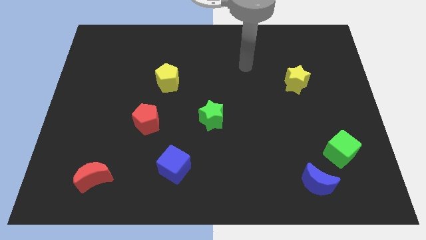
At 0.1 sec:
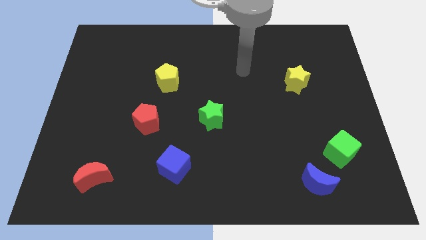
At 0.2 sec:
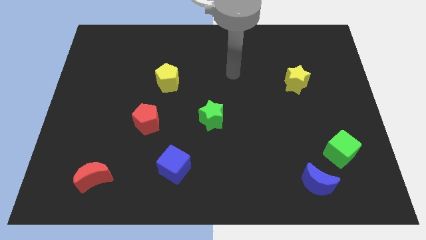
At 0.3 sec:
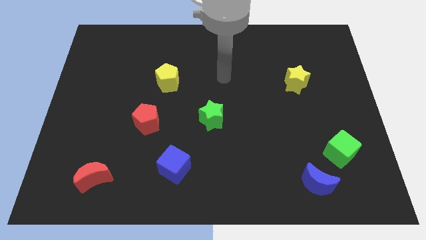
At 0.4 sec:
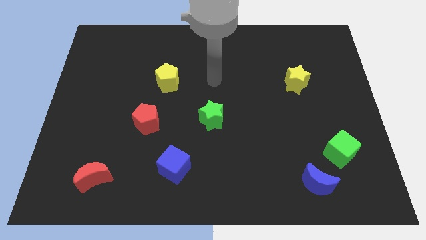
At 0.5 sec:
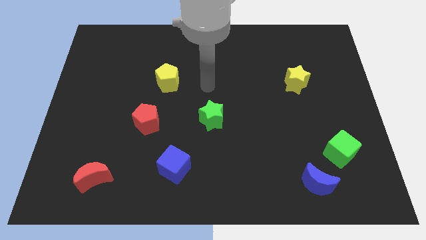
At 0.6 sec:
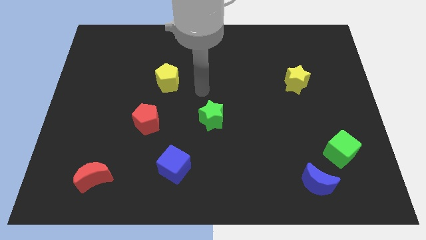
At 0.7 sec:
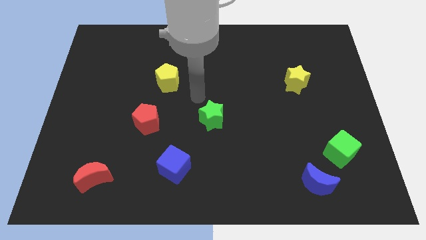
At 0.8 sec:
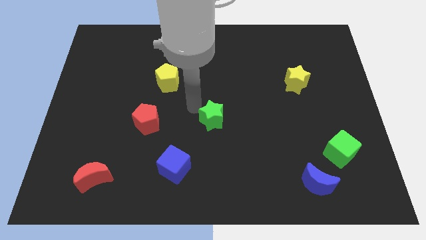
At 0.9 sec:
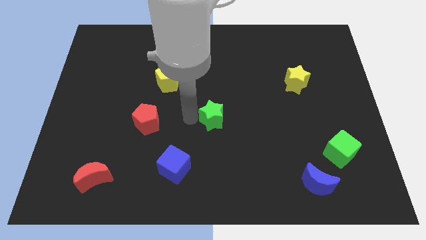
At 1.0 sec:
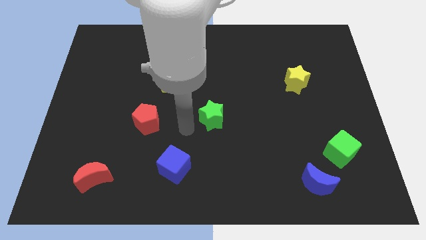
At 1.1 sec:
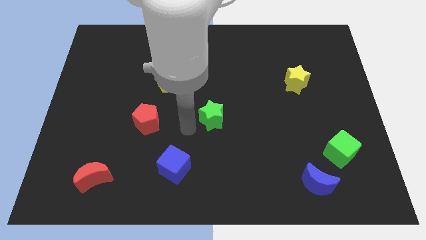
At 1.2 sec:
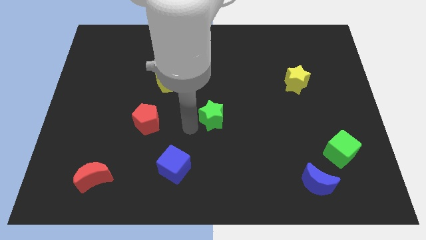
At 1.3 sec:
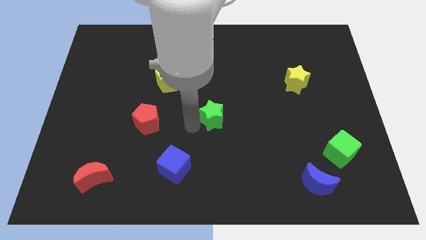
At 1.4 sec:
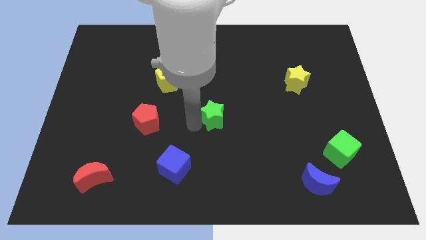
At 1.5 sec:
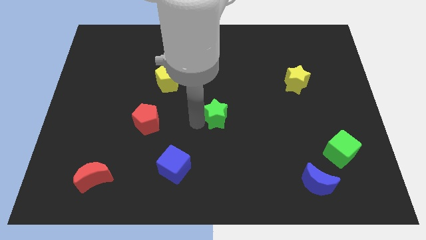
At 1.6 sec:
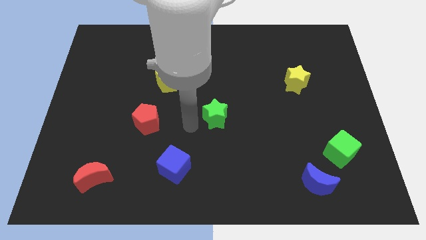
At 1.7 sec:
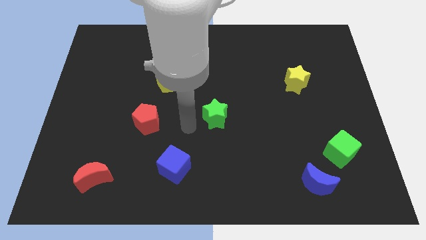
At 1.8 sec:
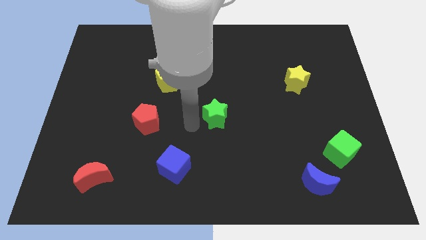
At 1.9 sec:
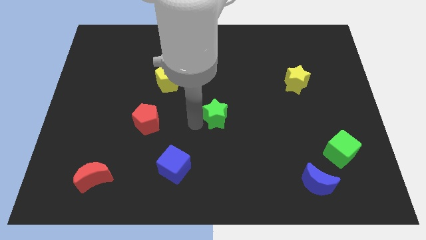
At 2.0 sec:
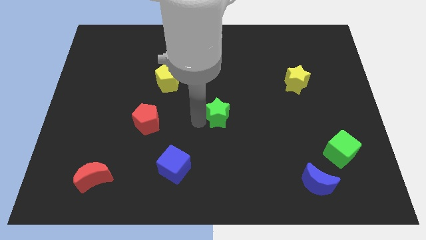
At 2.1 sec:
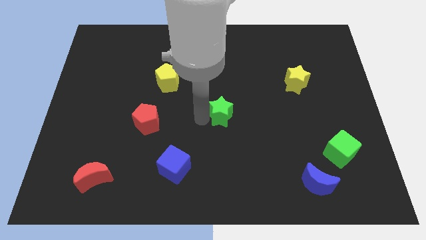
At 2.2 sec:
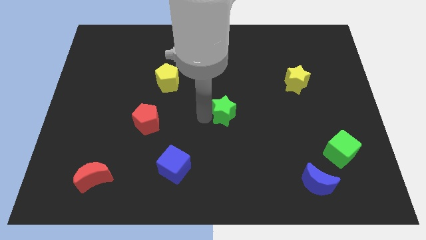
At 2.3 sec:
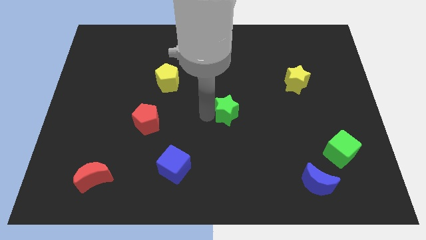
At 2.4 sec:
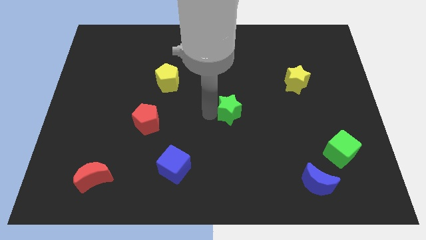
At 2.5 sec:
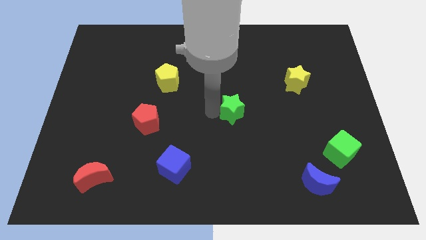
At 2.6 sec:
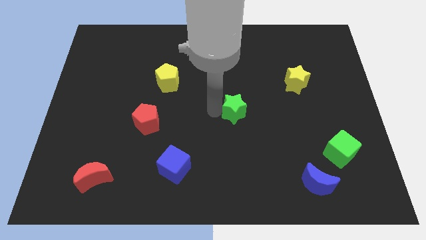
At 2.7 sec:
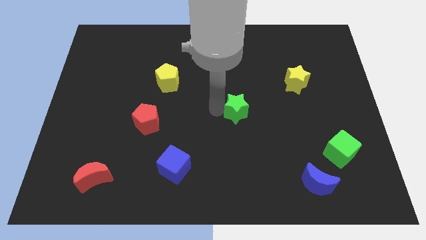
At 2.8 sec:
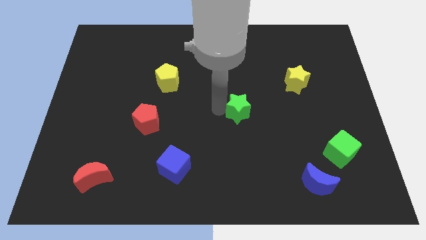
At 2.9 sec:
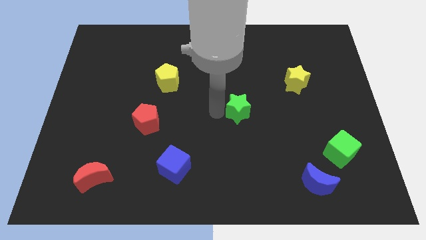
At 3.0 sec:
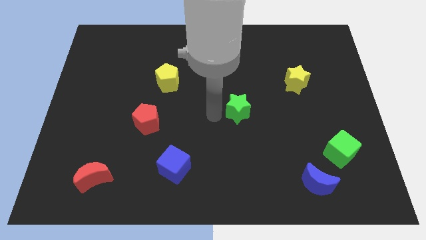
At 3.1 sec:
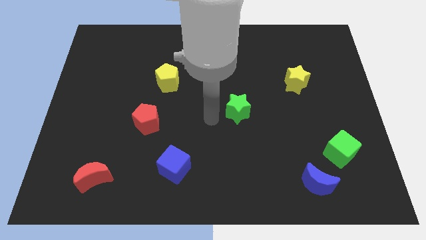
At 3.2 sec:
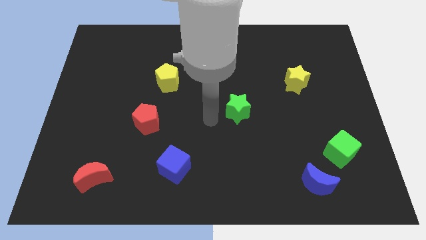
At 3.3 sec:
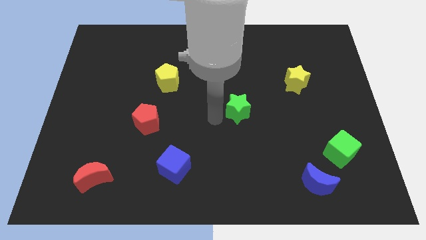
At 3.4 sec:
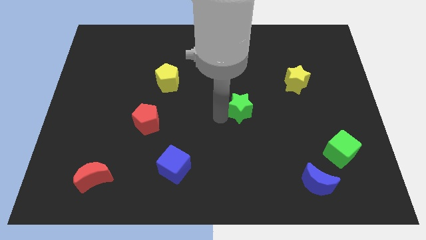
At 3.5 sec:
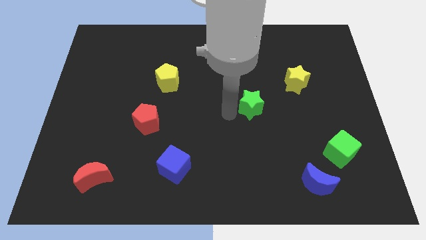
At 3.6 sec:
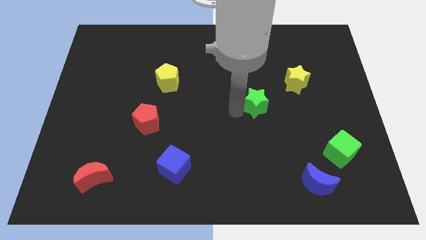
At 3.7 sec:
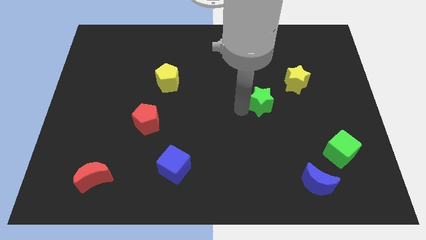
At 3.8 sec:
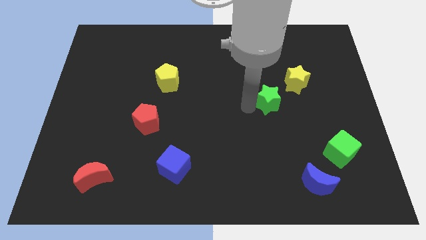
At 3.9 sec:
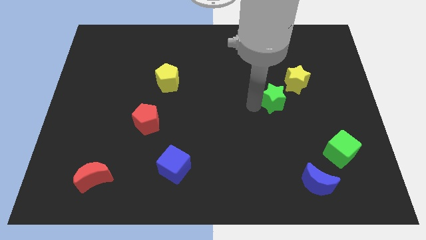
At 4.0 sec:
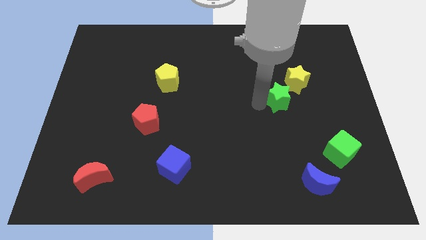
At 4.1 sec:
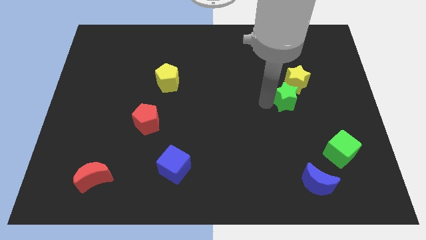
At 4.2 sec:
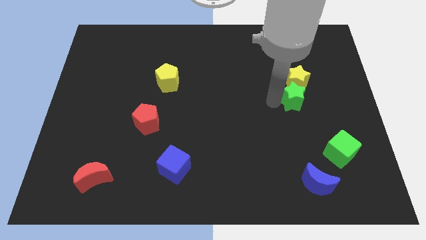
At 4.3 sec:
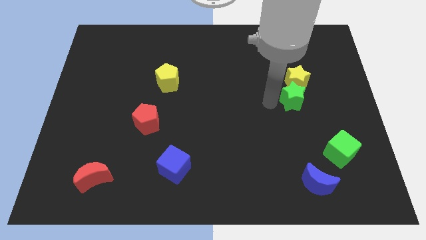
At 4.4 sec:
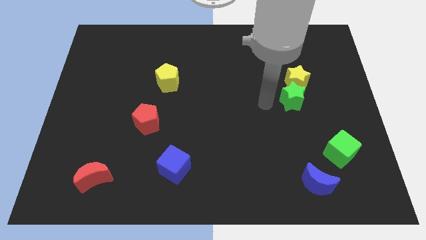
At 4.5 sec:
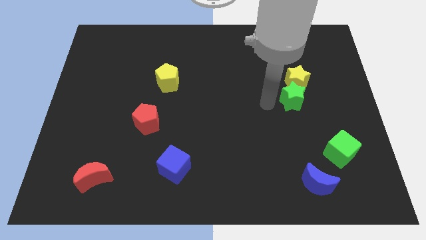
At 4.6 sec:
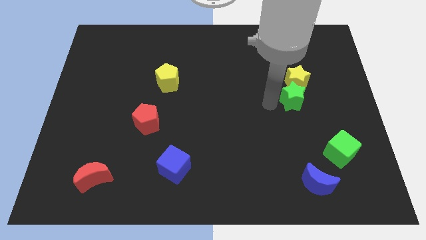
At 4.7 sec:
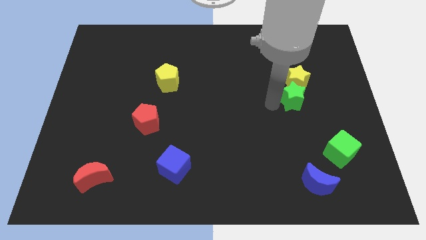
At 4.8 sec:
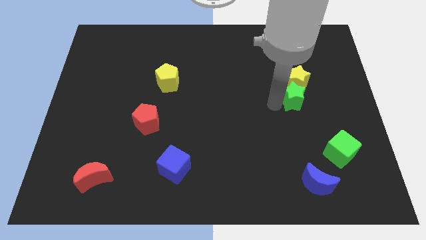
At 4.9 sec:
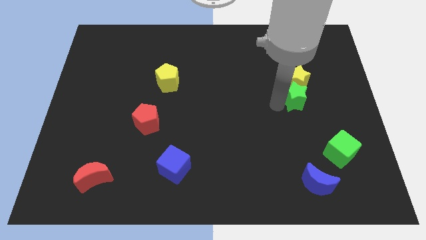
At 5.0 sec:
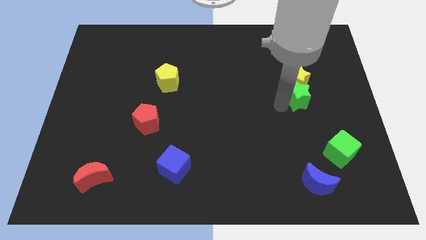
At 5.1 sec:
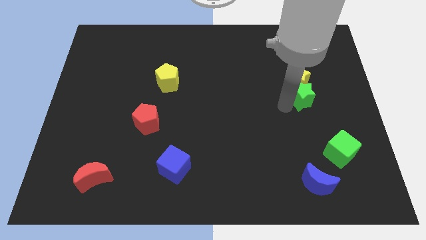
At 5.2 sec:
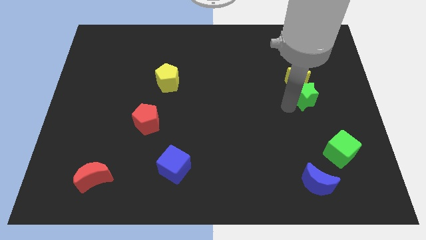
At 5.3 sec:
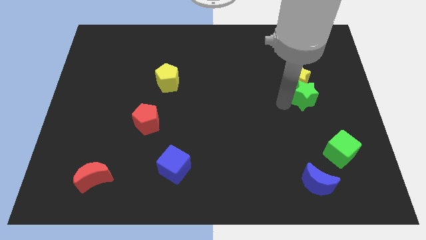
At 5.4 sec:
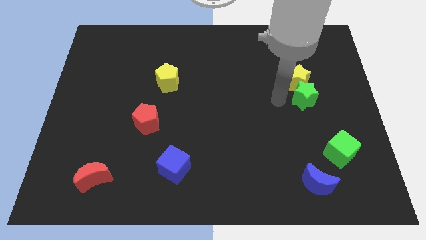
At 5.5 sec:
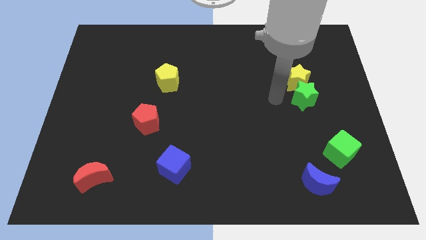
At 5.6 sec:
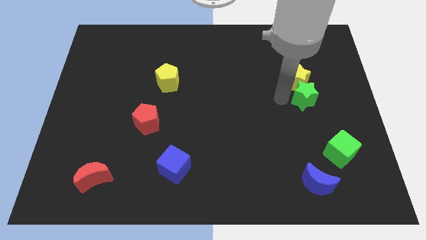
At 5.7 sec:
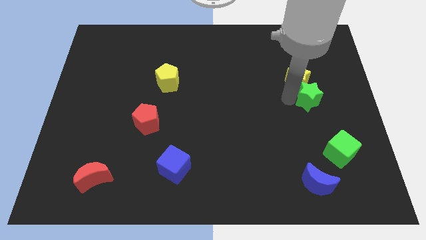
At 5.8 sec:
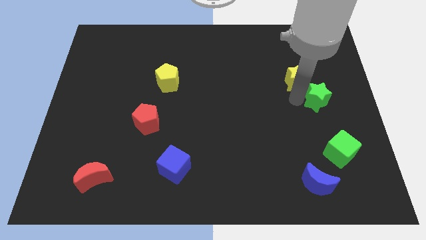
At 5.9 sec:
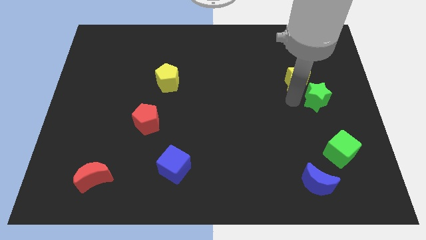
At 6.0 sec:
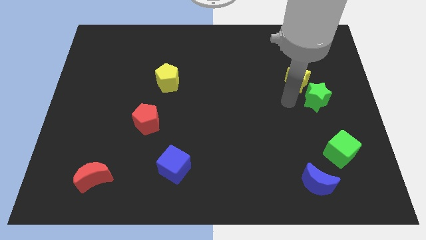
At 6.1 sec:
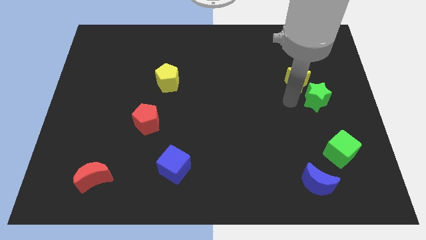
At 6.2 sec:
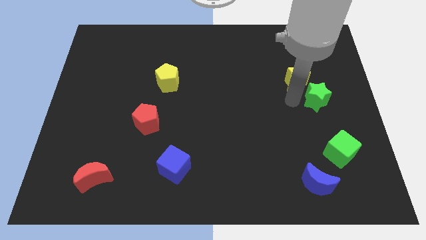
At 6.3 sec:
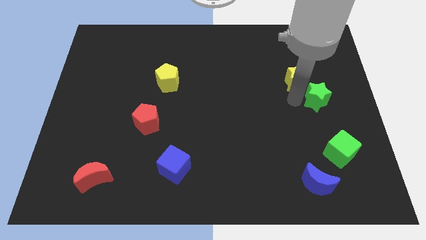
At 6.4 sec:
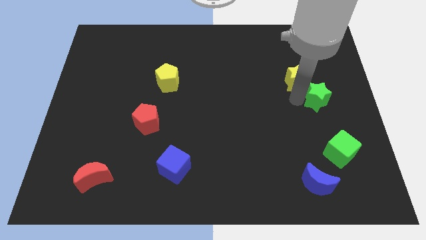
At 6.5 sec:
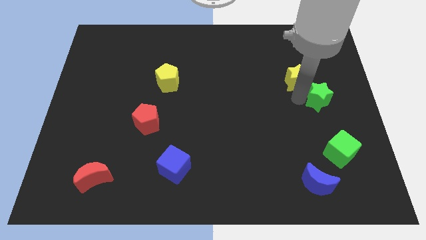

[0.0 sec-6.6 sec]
put the green star to the center right
